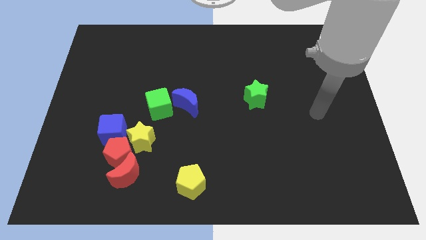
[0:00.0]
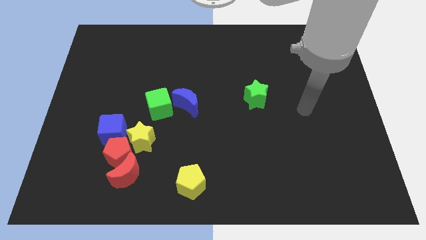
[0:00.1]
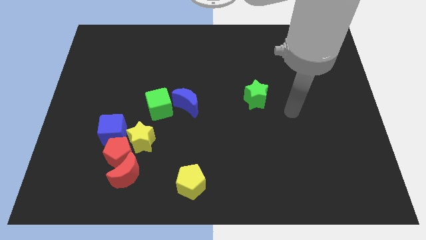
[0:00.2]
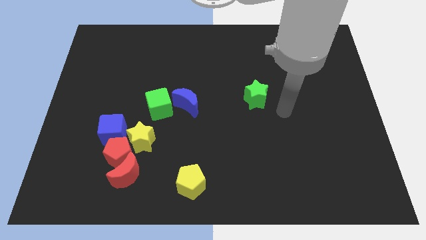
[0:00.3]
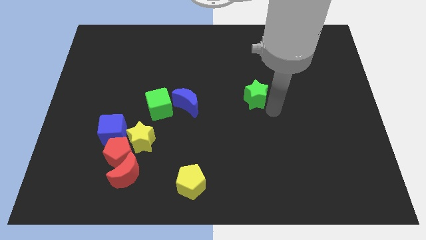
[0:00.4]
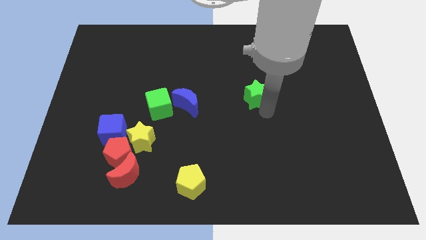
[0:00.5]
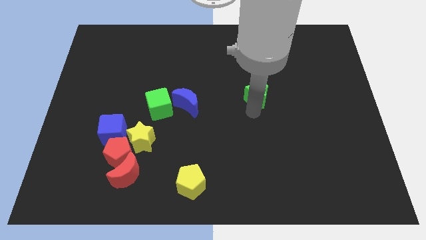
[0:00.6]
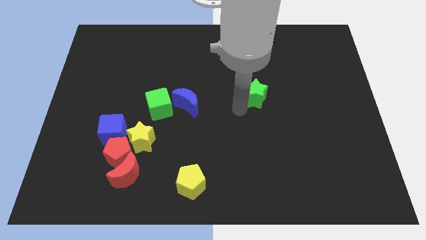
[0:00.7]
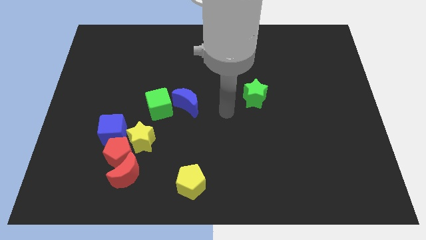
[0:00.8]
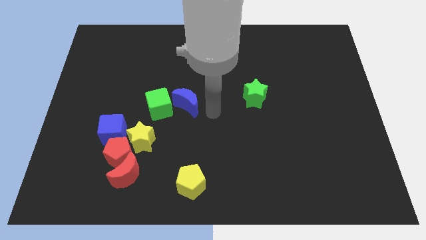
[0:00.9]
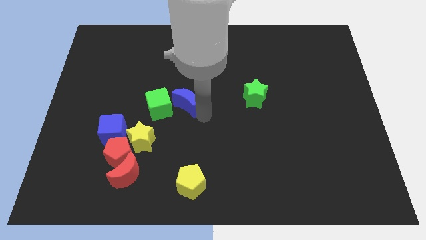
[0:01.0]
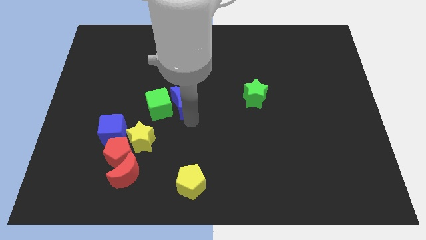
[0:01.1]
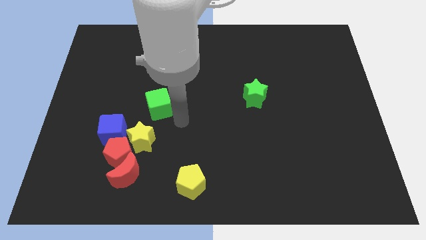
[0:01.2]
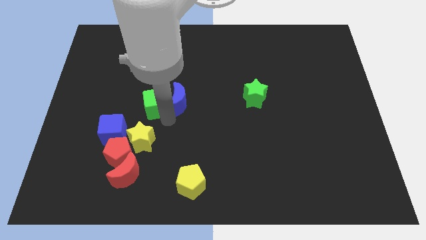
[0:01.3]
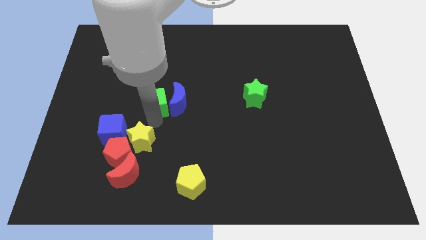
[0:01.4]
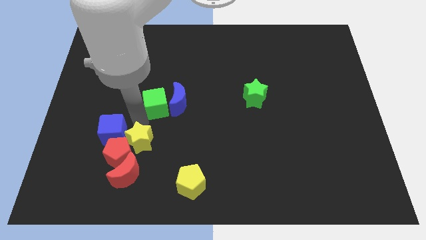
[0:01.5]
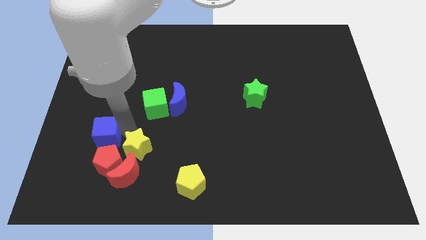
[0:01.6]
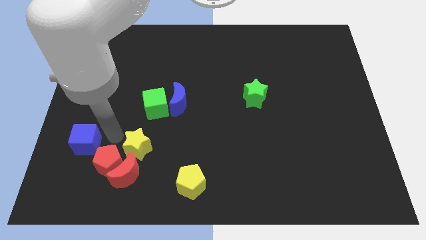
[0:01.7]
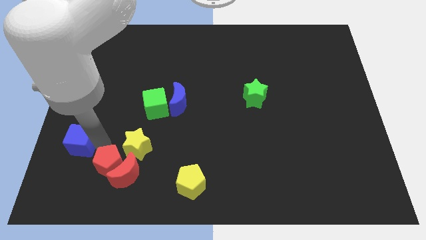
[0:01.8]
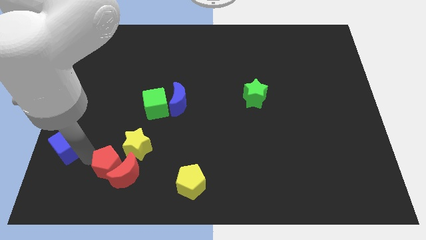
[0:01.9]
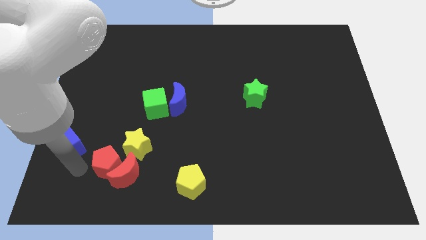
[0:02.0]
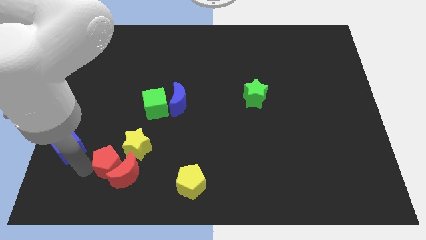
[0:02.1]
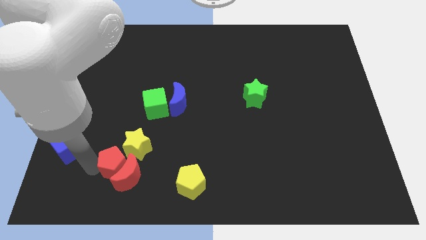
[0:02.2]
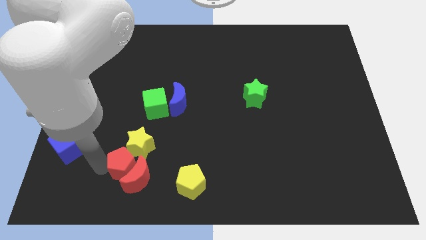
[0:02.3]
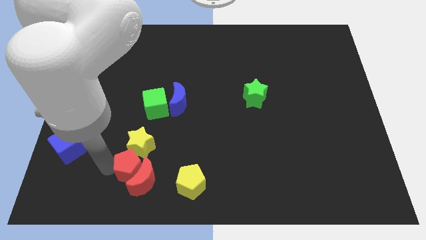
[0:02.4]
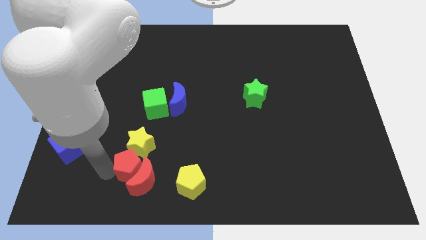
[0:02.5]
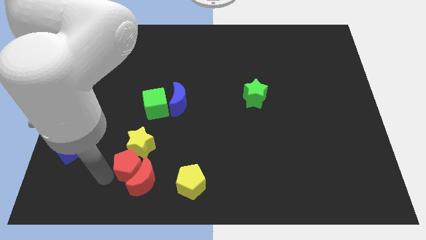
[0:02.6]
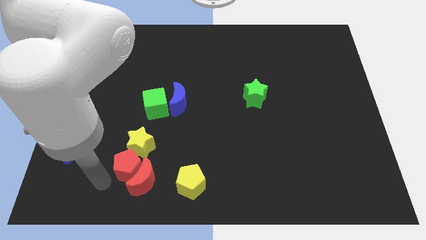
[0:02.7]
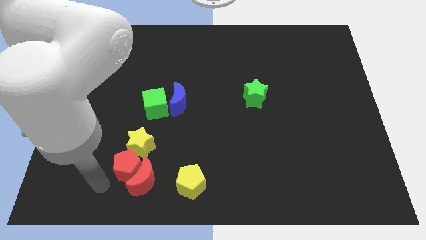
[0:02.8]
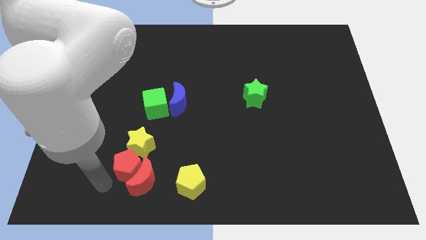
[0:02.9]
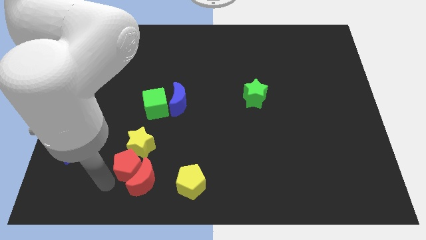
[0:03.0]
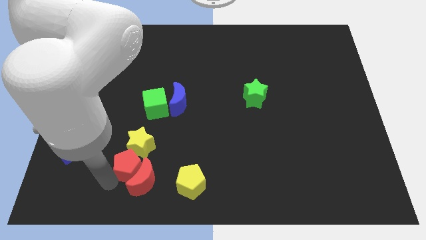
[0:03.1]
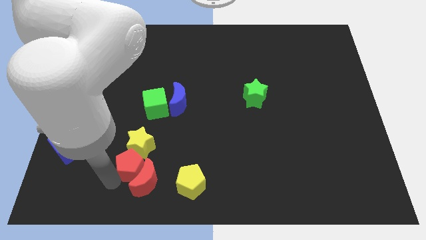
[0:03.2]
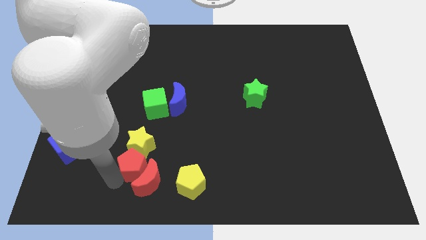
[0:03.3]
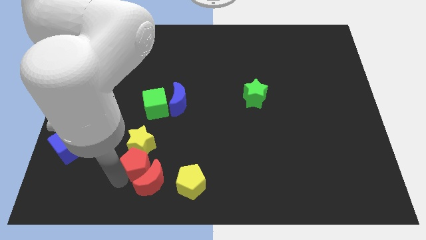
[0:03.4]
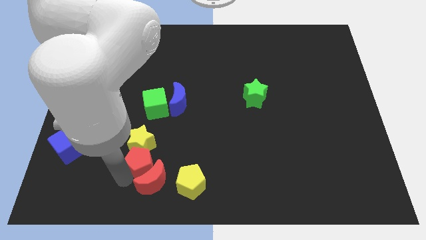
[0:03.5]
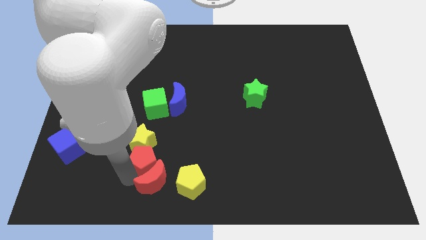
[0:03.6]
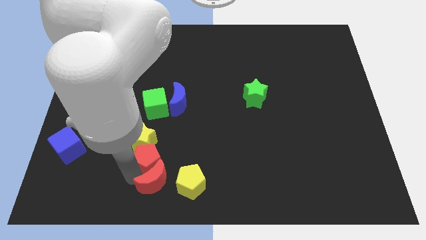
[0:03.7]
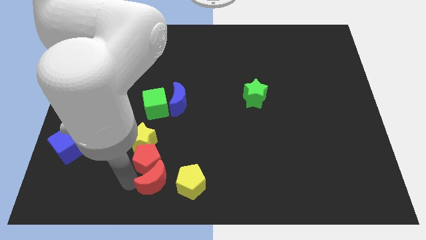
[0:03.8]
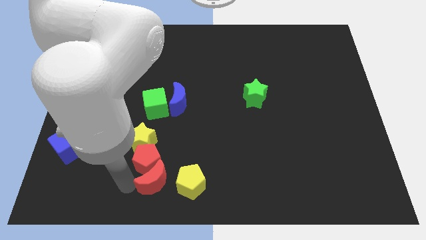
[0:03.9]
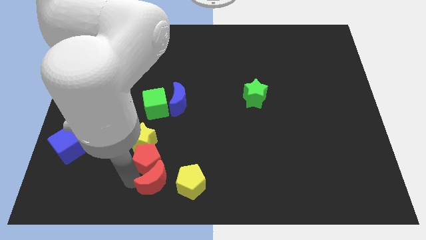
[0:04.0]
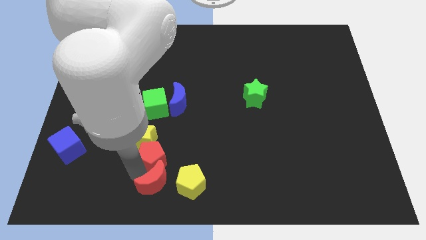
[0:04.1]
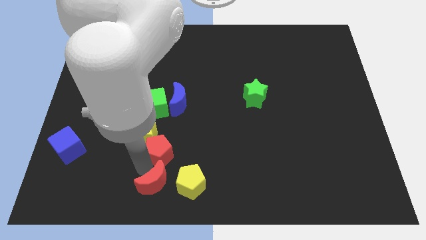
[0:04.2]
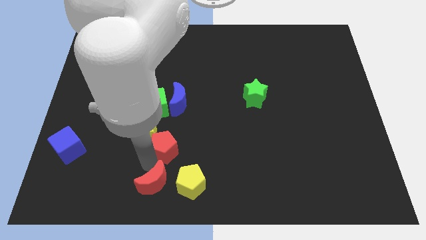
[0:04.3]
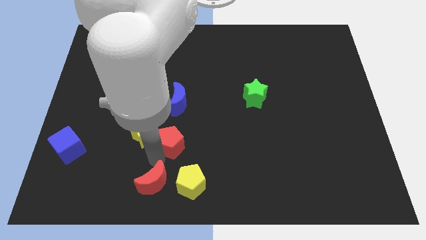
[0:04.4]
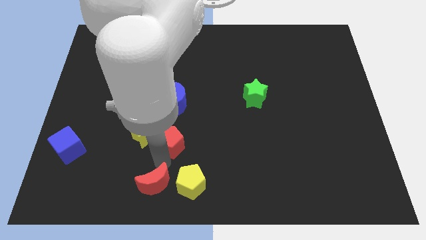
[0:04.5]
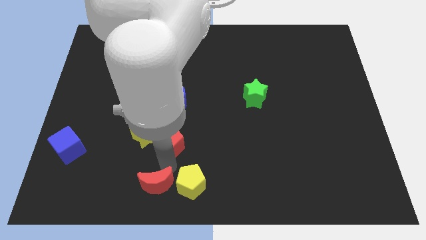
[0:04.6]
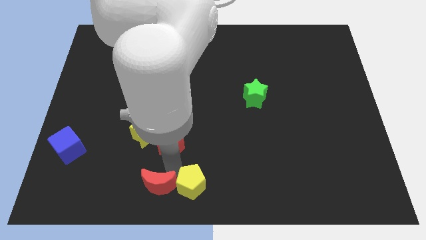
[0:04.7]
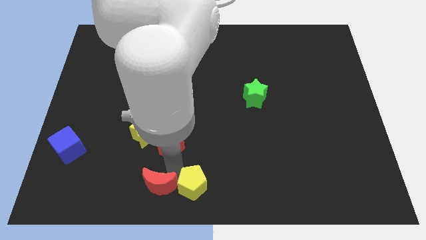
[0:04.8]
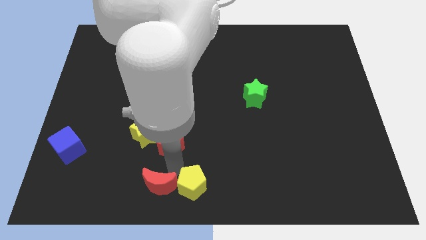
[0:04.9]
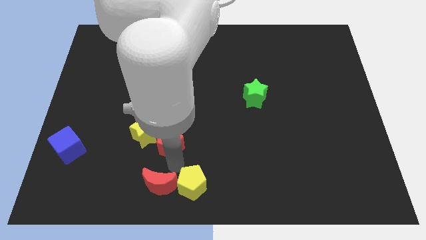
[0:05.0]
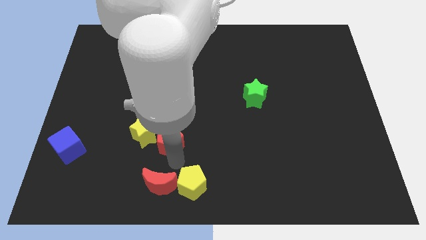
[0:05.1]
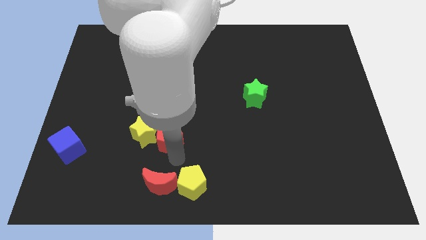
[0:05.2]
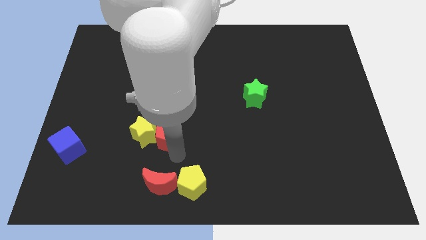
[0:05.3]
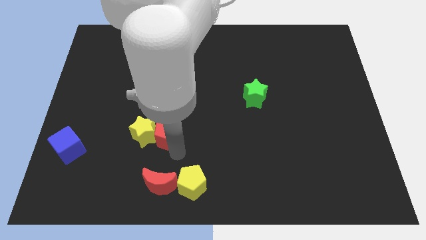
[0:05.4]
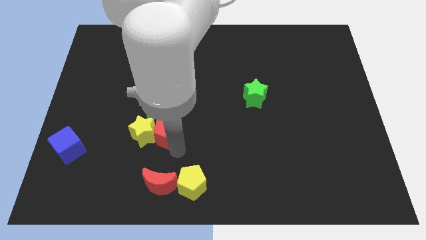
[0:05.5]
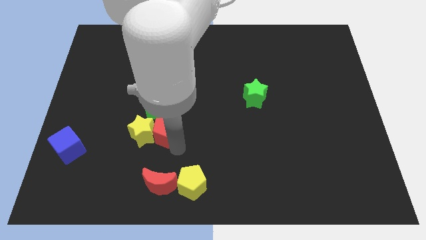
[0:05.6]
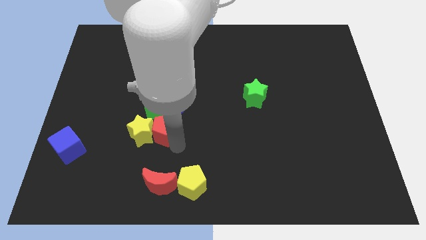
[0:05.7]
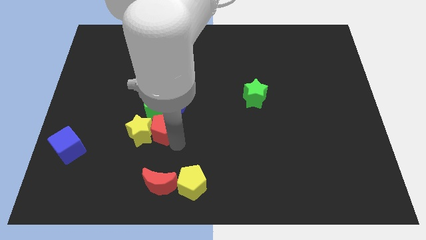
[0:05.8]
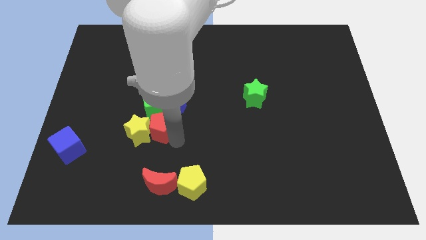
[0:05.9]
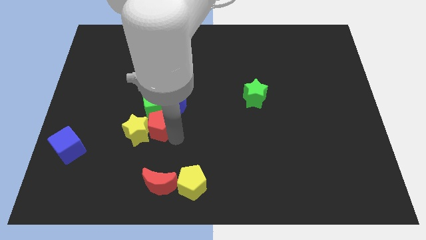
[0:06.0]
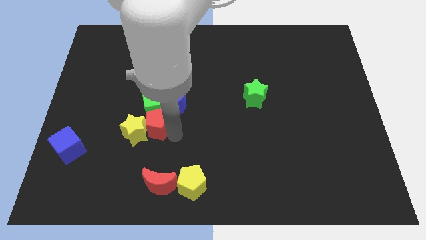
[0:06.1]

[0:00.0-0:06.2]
slide the red pentagon to the green cube

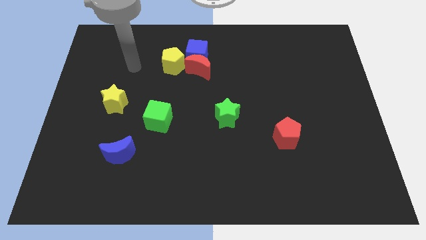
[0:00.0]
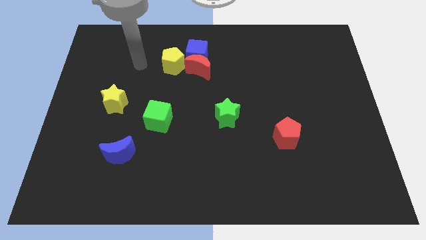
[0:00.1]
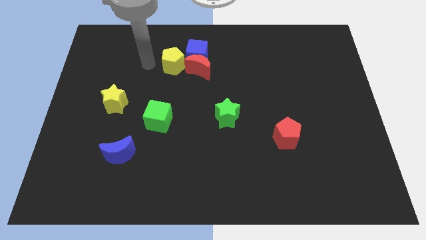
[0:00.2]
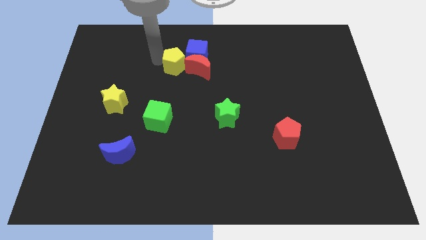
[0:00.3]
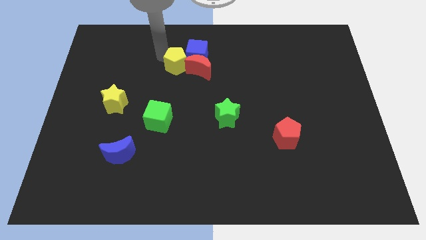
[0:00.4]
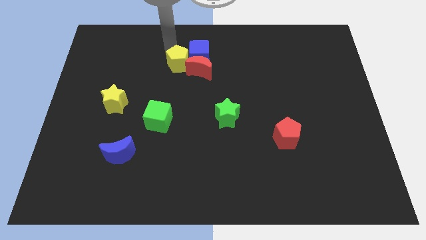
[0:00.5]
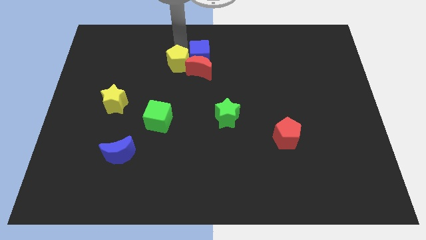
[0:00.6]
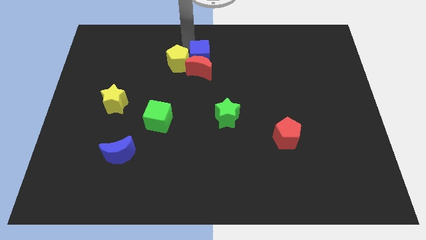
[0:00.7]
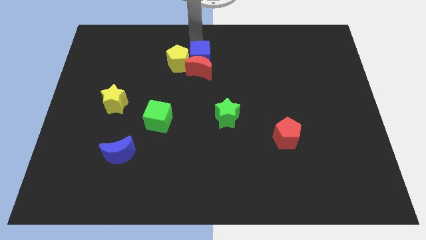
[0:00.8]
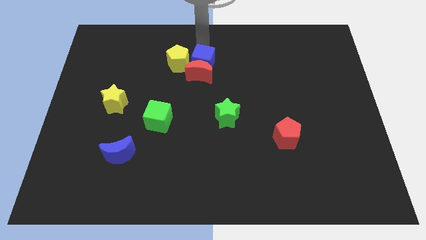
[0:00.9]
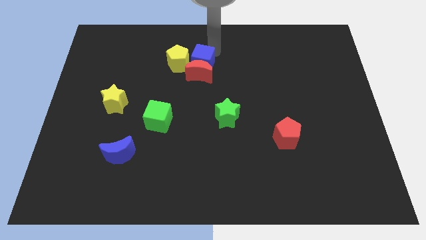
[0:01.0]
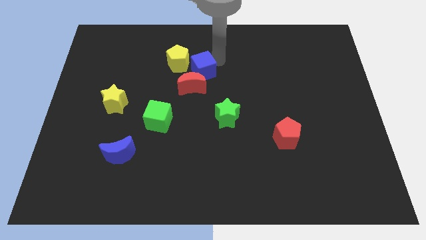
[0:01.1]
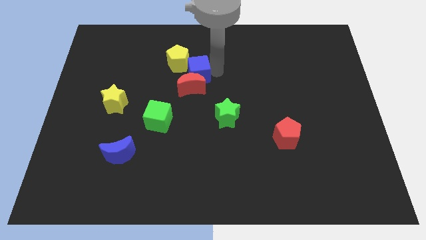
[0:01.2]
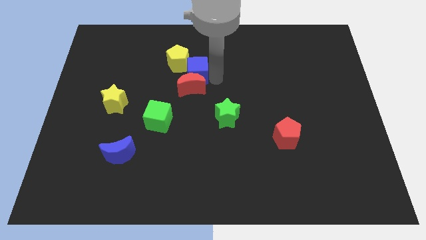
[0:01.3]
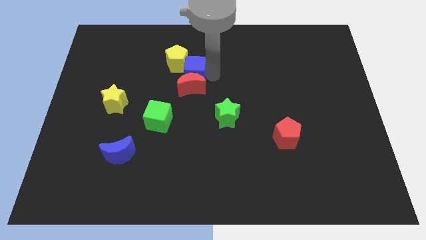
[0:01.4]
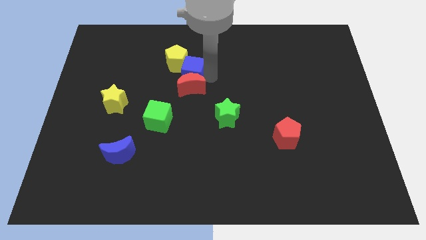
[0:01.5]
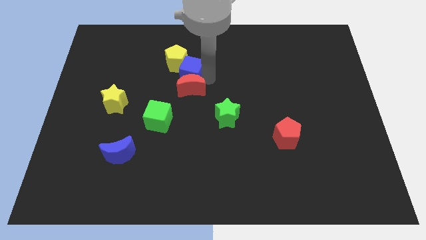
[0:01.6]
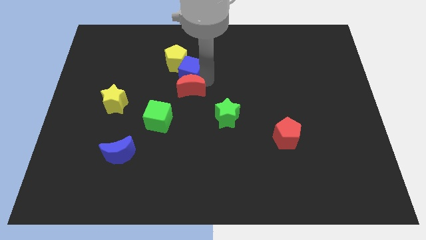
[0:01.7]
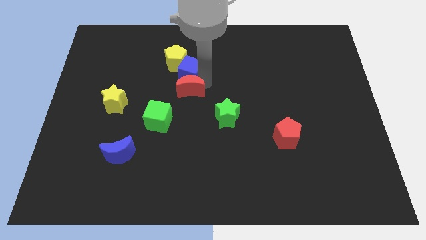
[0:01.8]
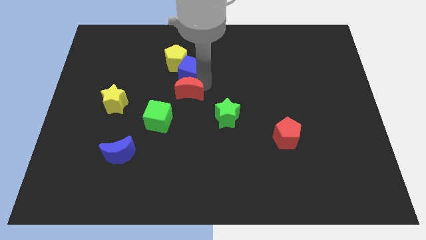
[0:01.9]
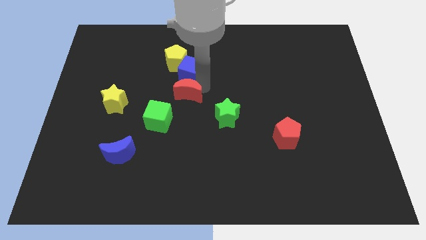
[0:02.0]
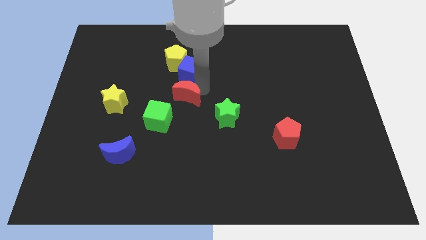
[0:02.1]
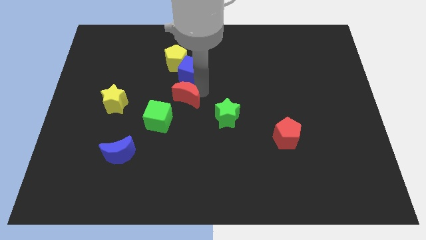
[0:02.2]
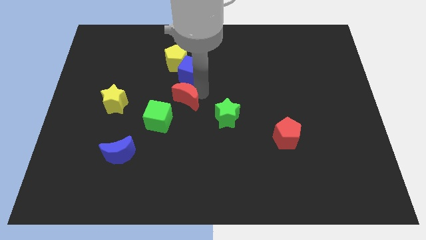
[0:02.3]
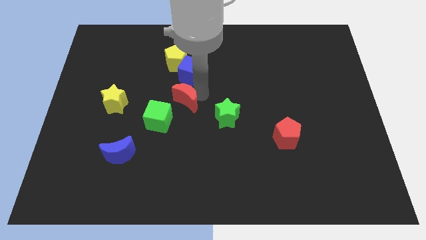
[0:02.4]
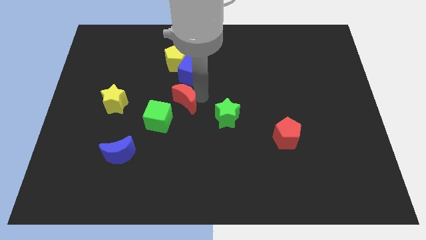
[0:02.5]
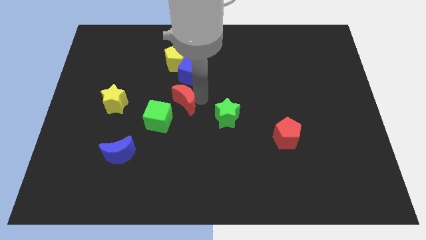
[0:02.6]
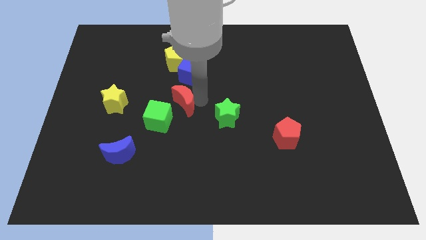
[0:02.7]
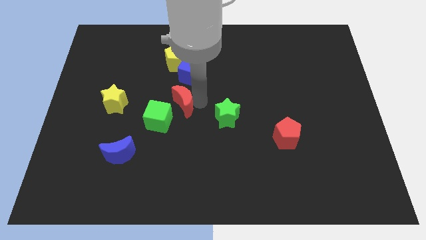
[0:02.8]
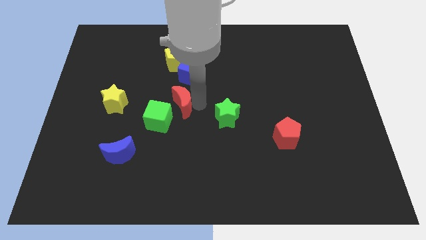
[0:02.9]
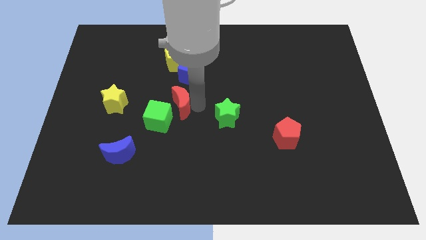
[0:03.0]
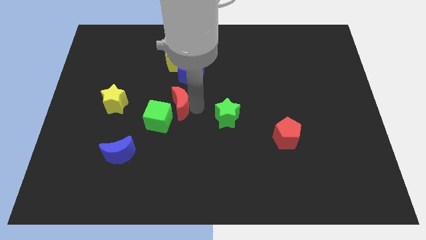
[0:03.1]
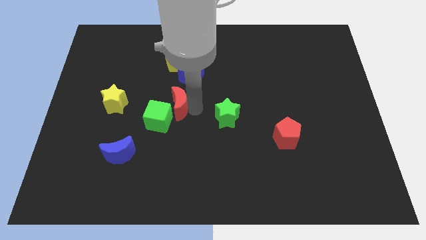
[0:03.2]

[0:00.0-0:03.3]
put the red moon close to the green cube
